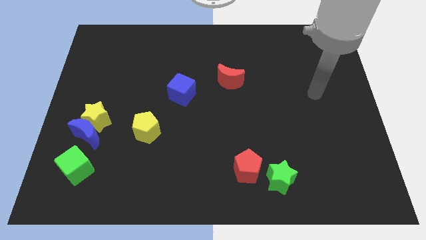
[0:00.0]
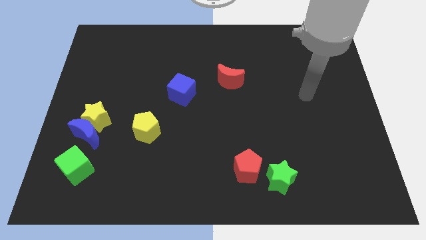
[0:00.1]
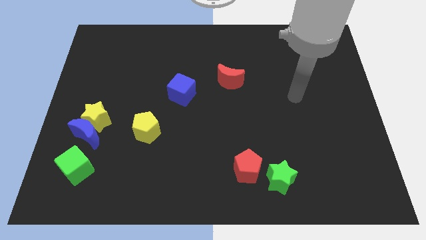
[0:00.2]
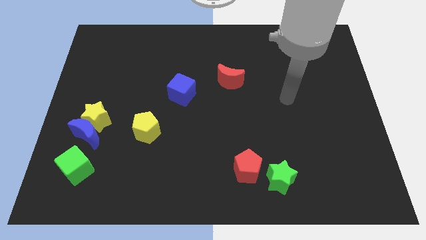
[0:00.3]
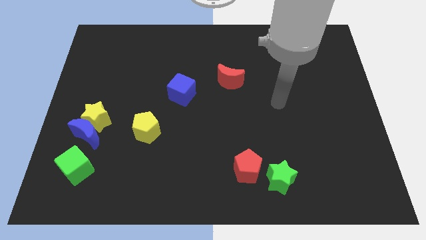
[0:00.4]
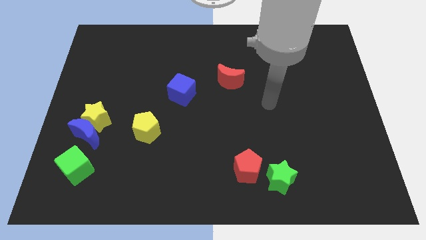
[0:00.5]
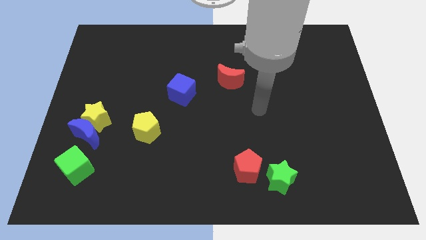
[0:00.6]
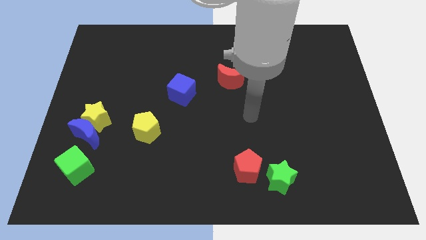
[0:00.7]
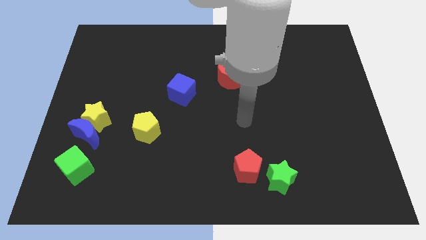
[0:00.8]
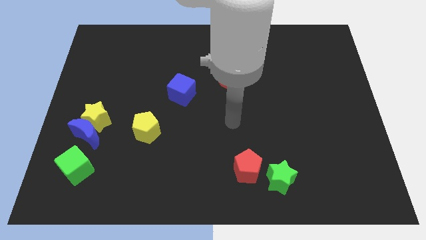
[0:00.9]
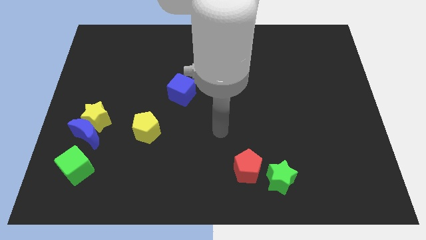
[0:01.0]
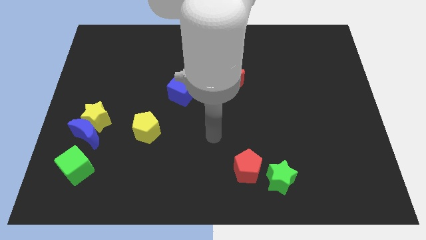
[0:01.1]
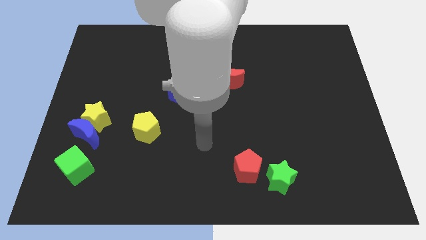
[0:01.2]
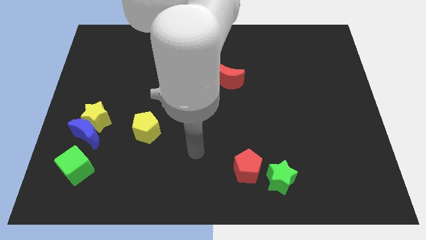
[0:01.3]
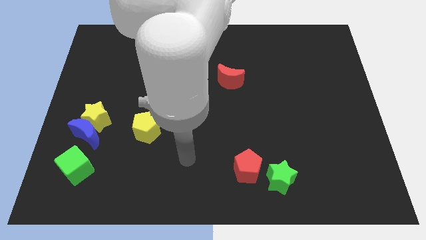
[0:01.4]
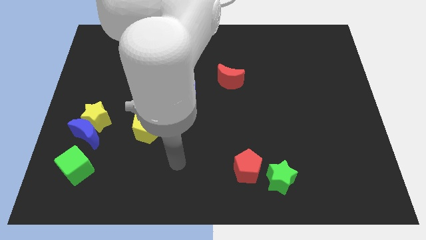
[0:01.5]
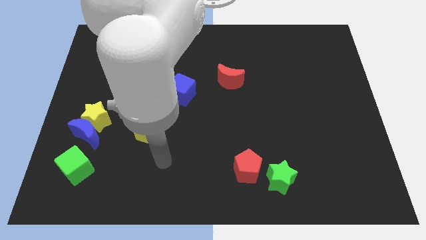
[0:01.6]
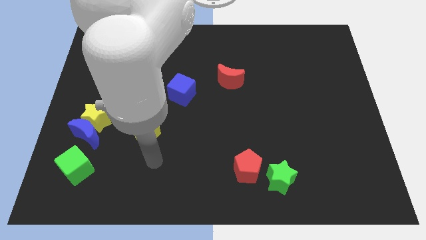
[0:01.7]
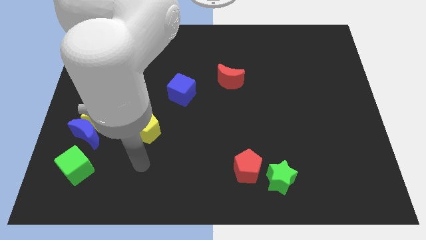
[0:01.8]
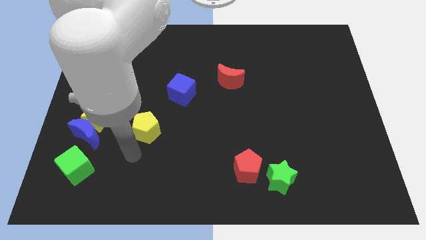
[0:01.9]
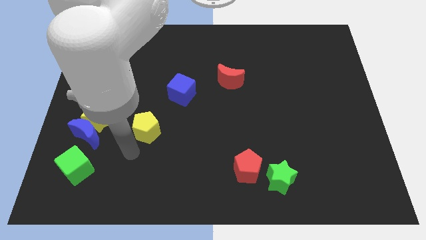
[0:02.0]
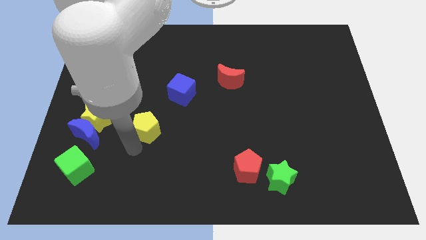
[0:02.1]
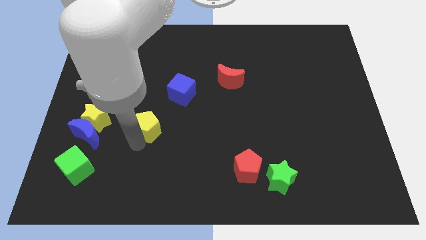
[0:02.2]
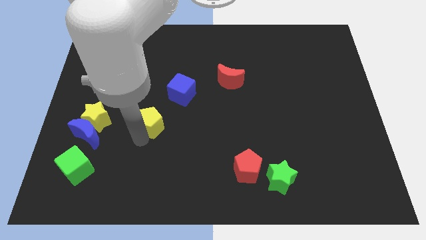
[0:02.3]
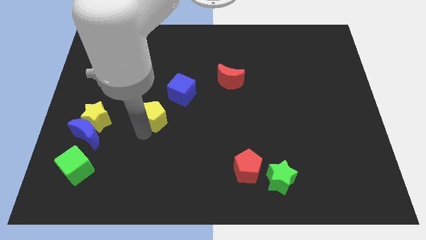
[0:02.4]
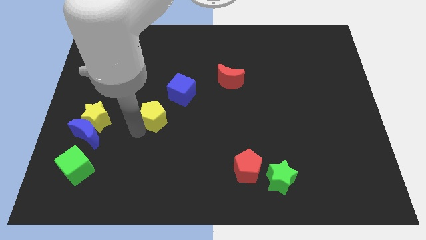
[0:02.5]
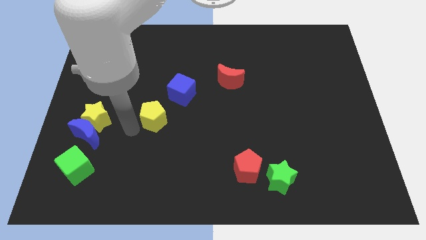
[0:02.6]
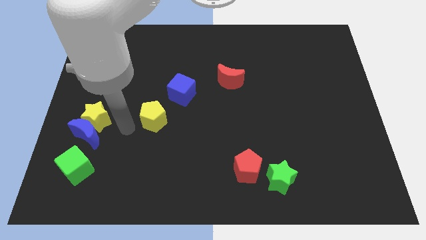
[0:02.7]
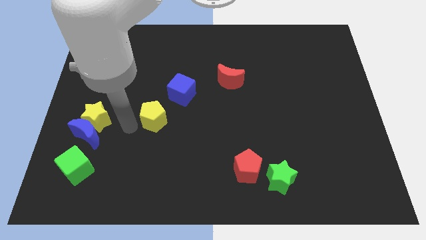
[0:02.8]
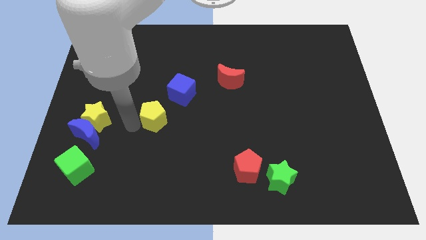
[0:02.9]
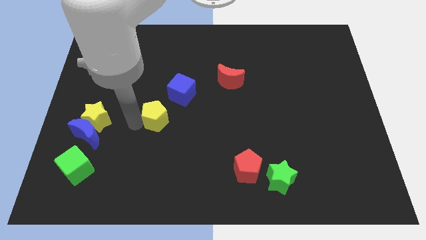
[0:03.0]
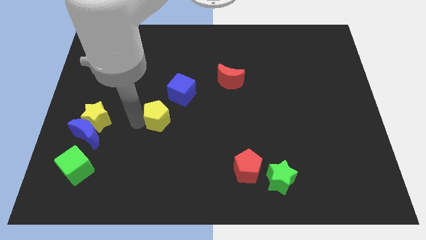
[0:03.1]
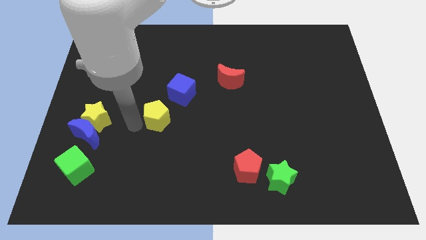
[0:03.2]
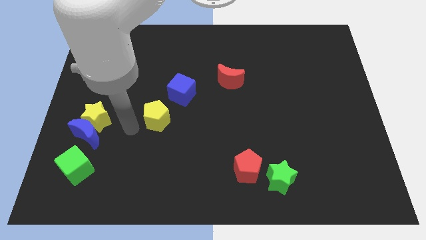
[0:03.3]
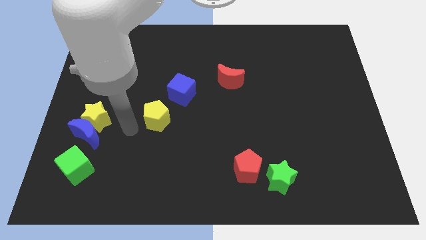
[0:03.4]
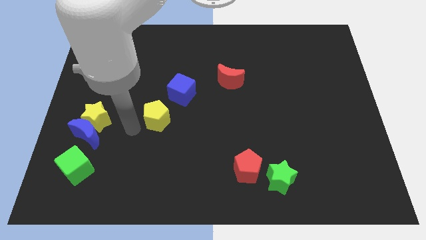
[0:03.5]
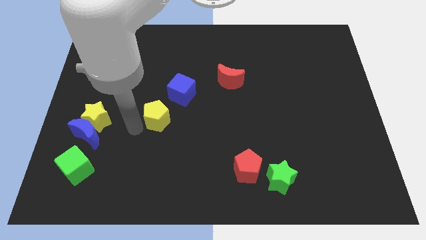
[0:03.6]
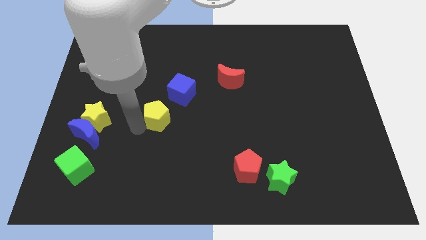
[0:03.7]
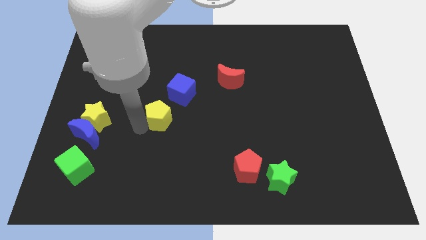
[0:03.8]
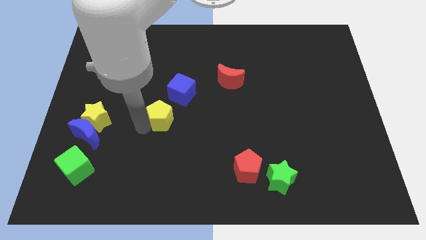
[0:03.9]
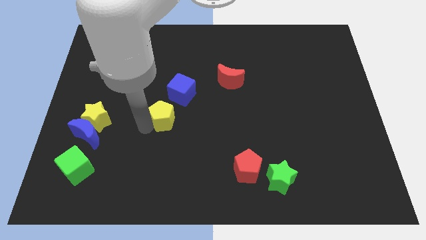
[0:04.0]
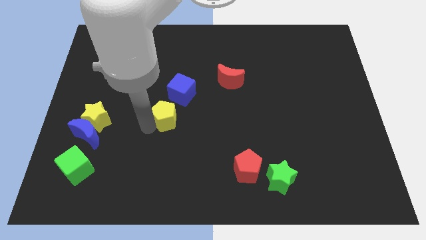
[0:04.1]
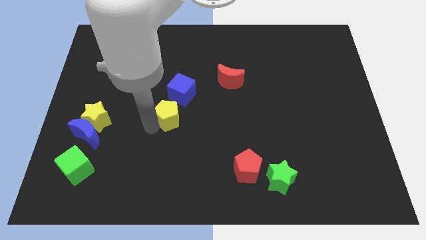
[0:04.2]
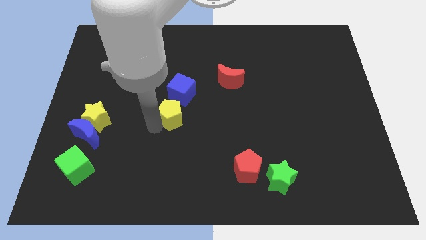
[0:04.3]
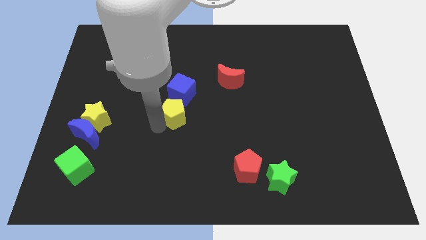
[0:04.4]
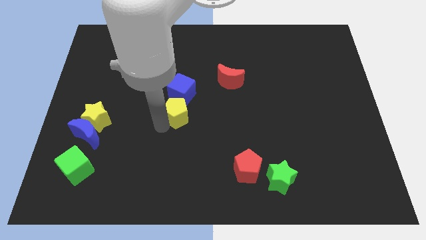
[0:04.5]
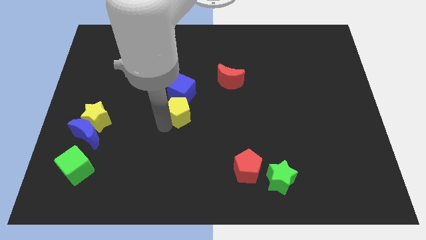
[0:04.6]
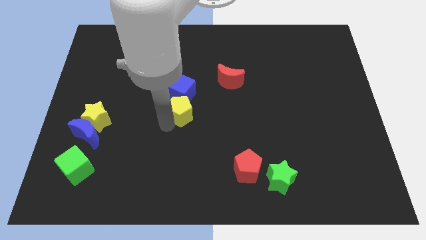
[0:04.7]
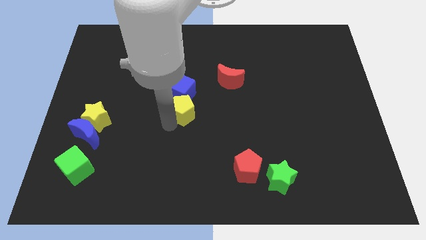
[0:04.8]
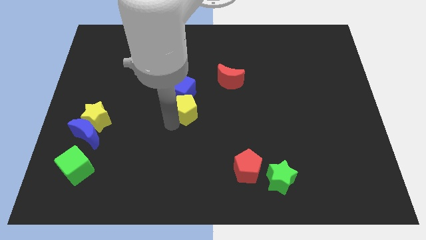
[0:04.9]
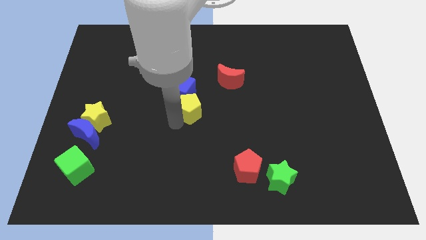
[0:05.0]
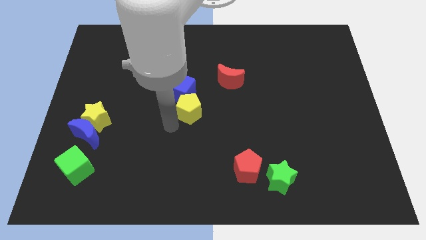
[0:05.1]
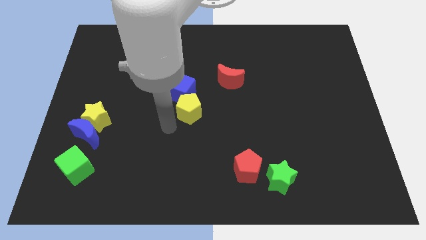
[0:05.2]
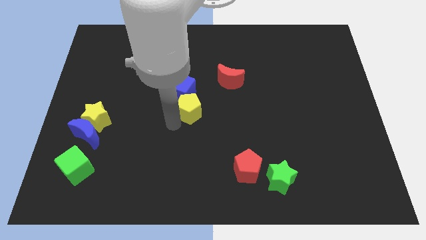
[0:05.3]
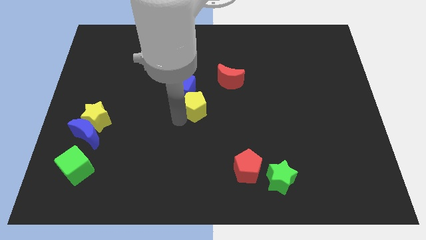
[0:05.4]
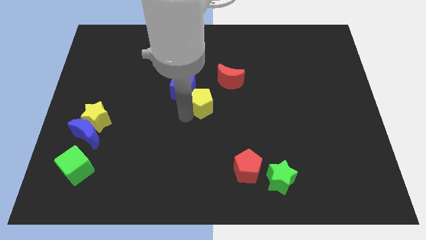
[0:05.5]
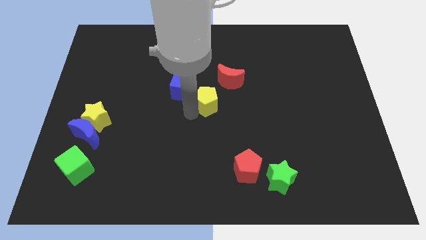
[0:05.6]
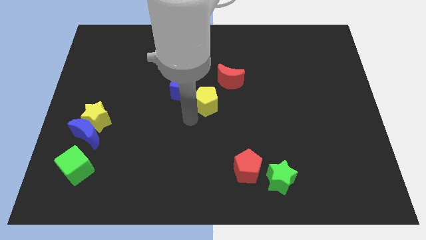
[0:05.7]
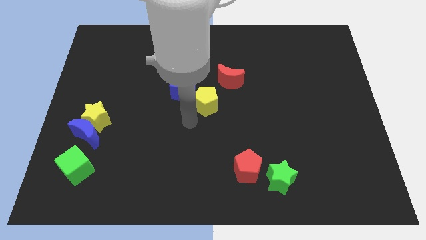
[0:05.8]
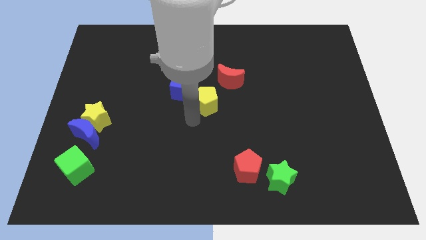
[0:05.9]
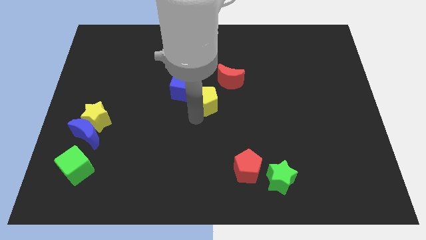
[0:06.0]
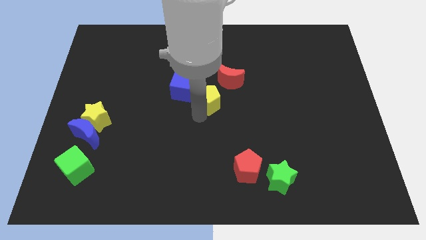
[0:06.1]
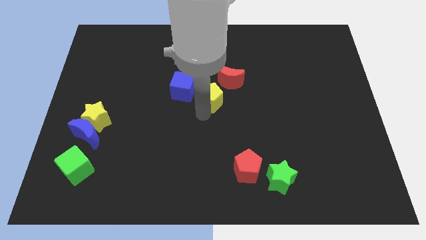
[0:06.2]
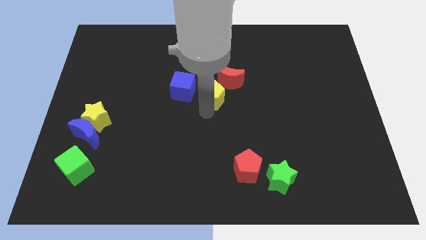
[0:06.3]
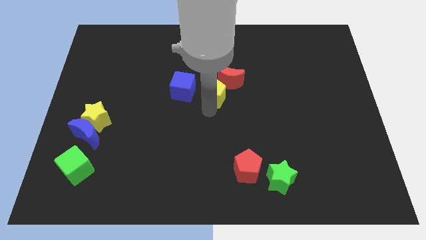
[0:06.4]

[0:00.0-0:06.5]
slide the yellow pentagon close to the red moon

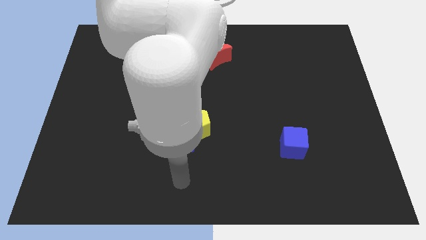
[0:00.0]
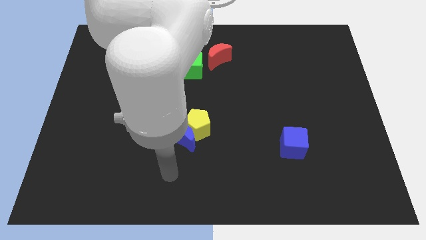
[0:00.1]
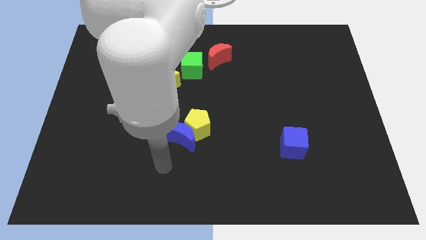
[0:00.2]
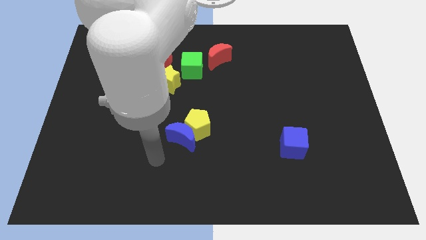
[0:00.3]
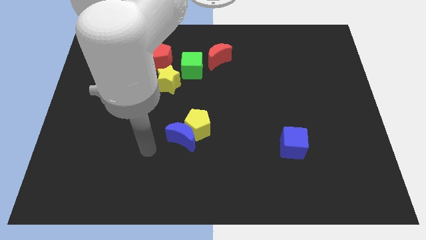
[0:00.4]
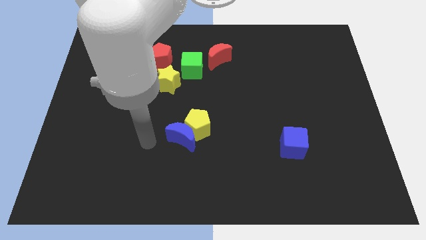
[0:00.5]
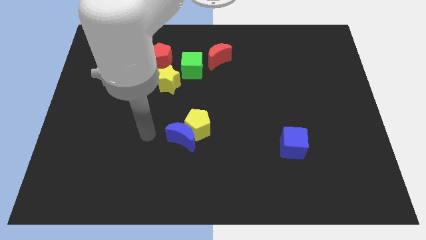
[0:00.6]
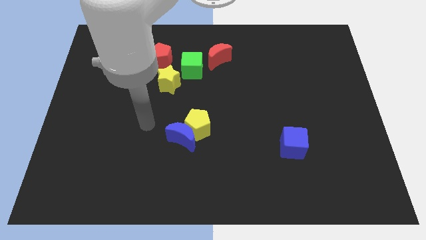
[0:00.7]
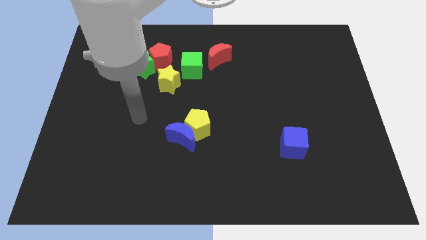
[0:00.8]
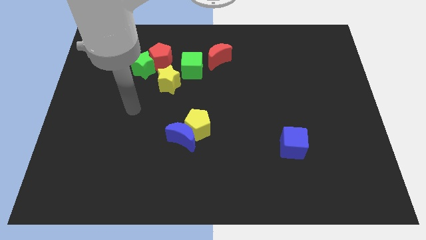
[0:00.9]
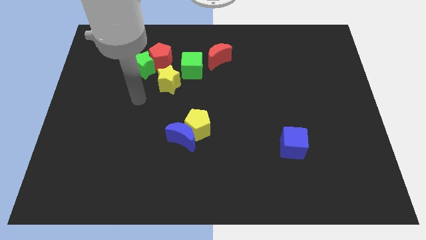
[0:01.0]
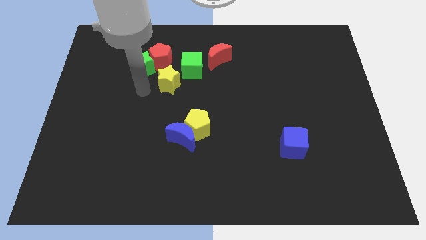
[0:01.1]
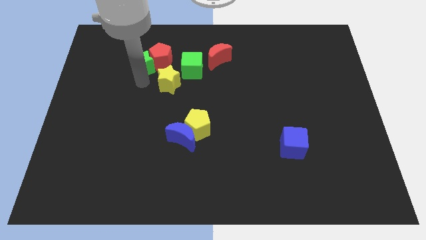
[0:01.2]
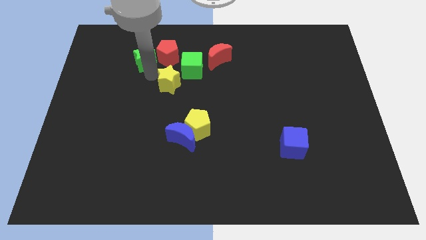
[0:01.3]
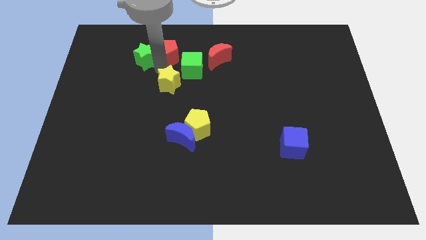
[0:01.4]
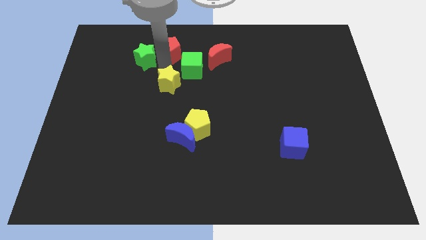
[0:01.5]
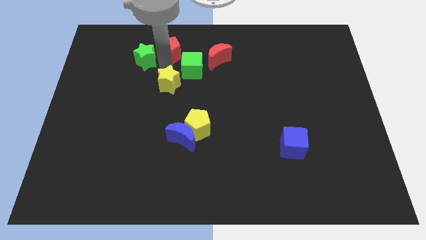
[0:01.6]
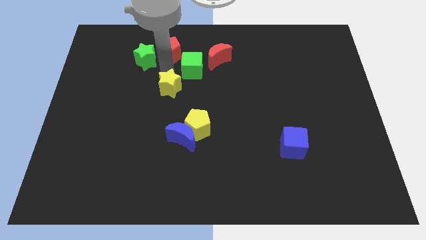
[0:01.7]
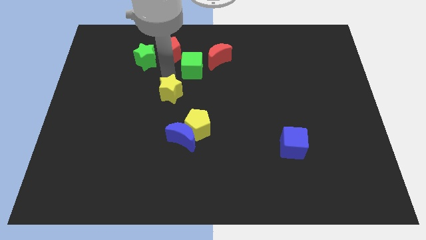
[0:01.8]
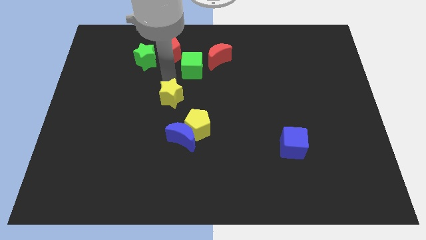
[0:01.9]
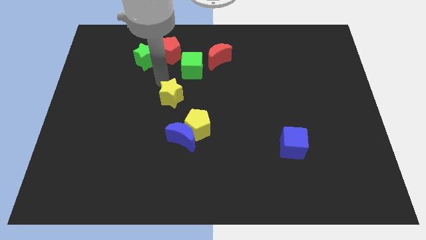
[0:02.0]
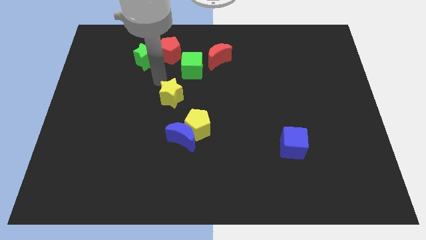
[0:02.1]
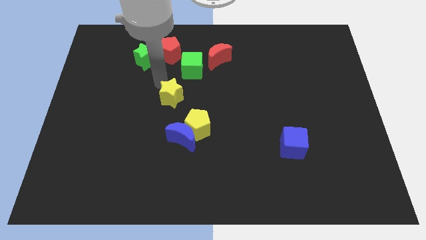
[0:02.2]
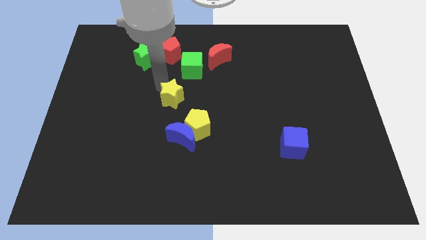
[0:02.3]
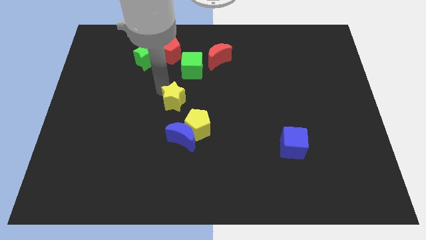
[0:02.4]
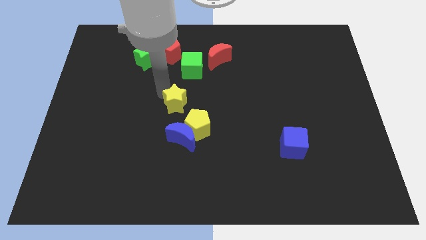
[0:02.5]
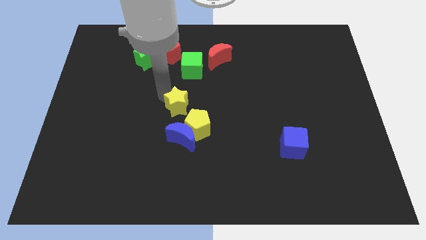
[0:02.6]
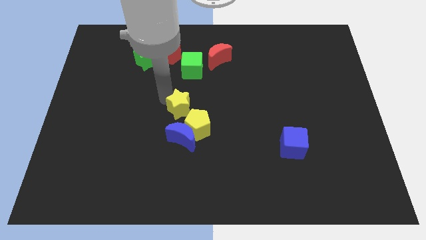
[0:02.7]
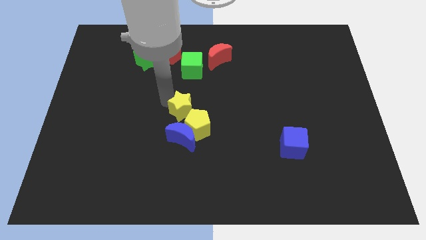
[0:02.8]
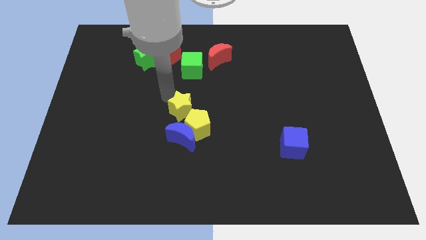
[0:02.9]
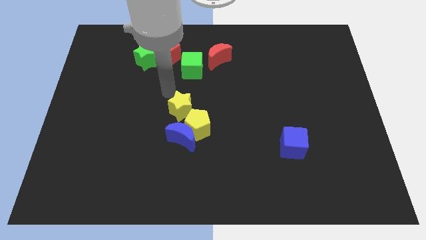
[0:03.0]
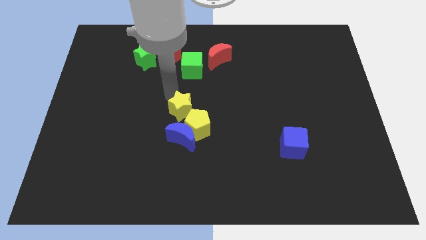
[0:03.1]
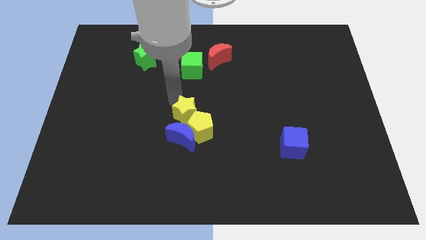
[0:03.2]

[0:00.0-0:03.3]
push the yellow star next to the yellow pentagon
